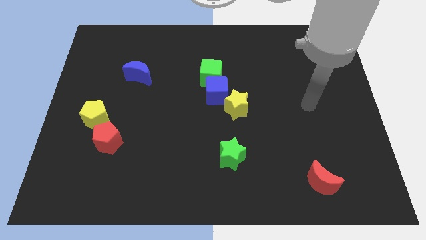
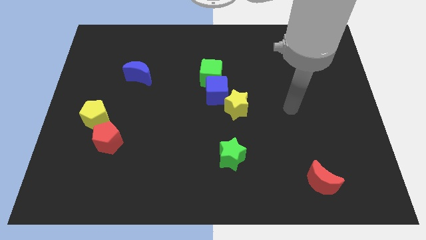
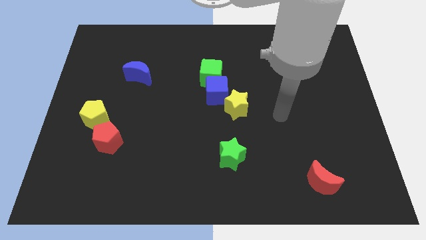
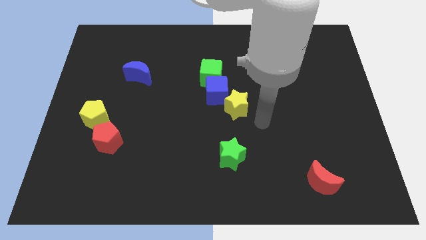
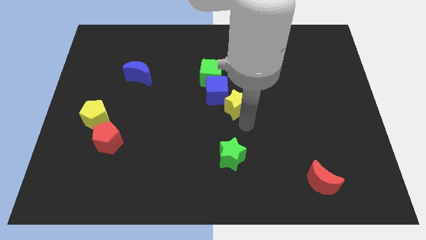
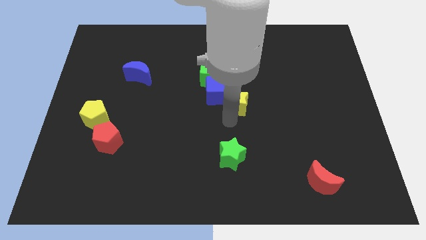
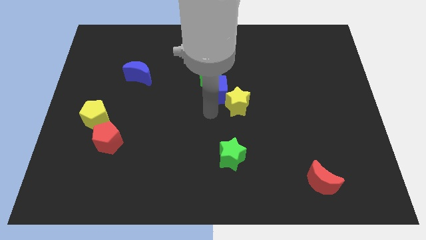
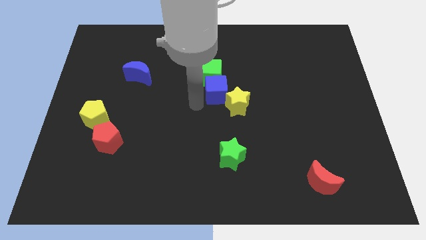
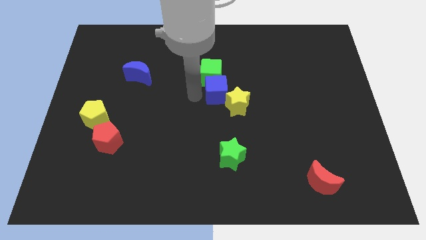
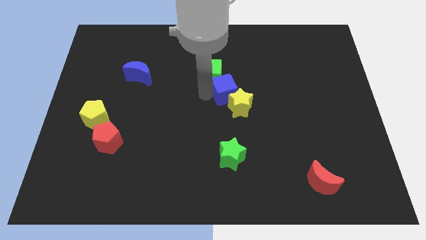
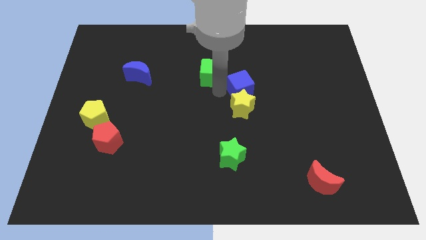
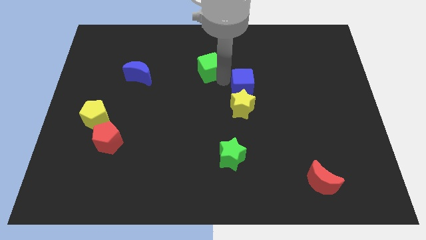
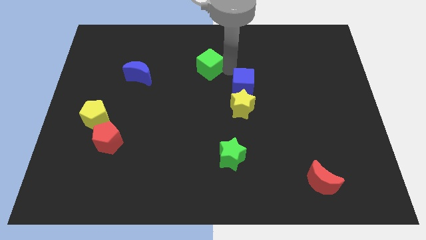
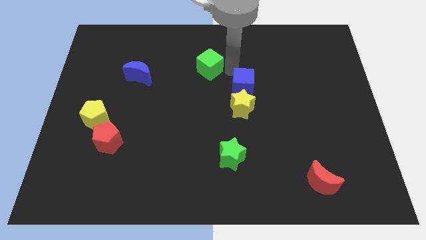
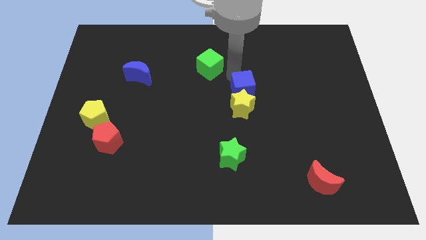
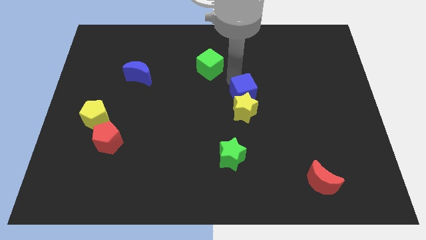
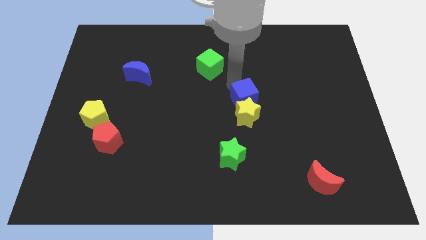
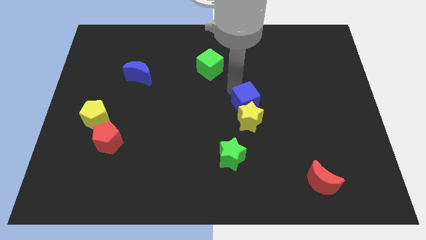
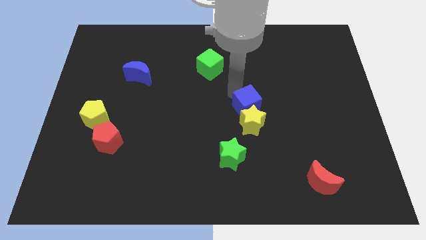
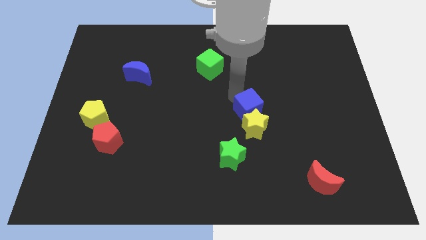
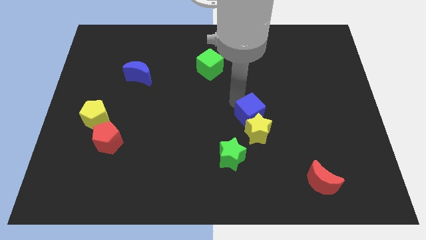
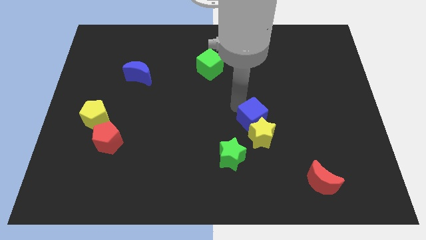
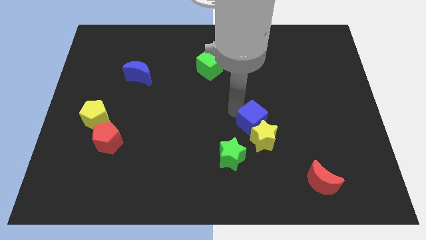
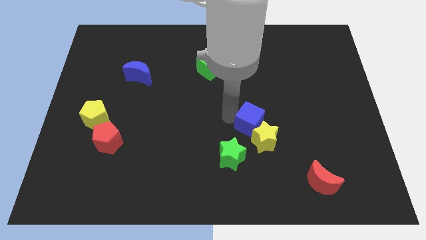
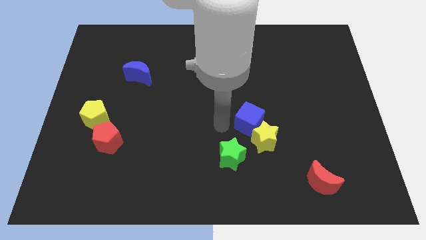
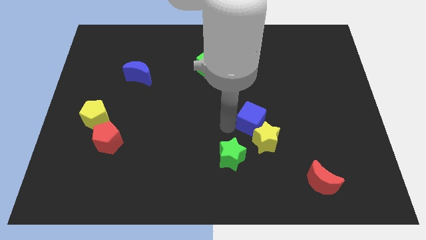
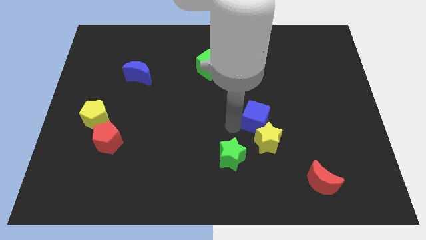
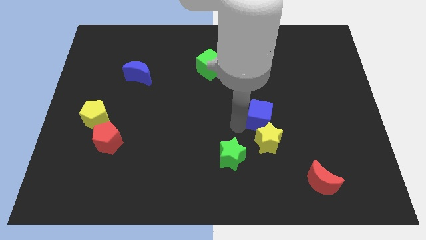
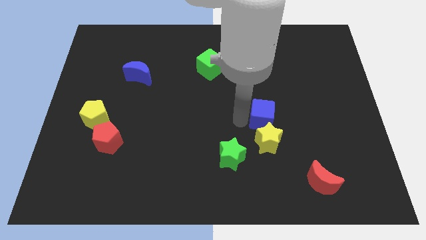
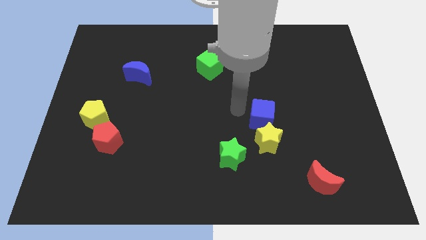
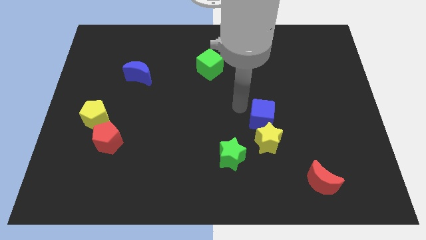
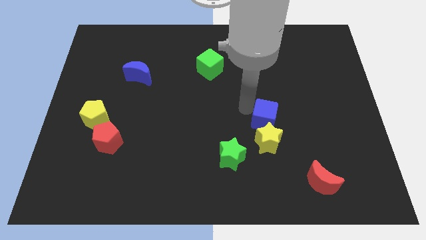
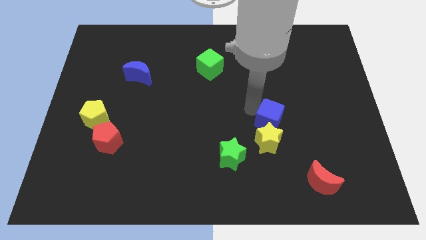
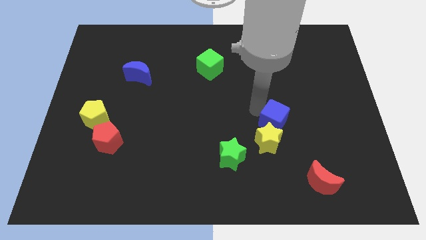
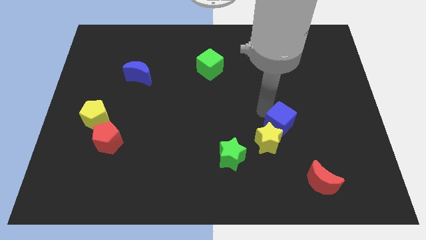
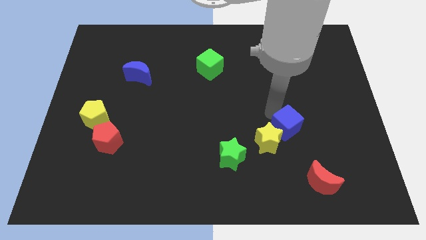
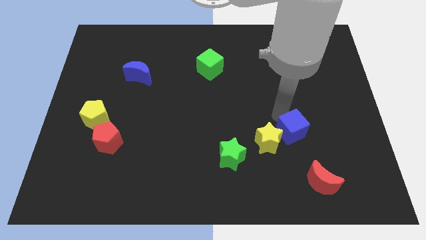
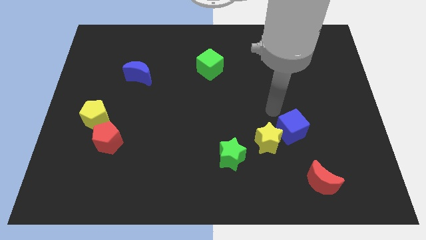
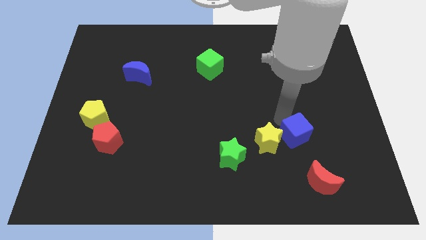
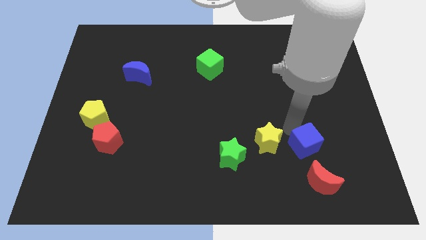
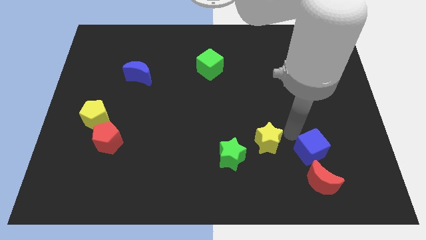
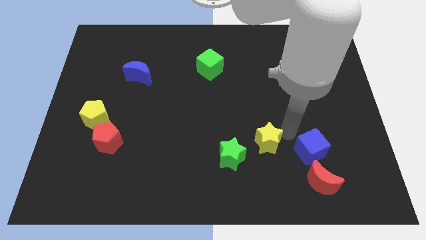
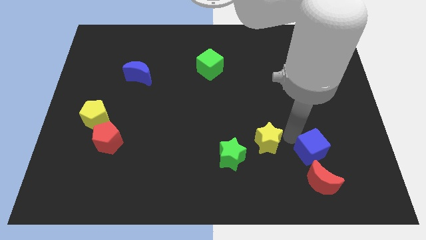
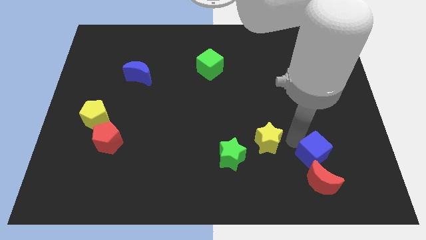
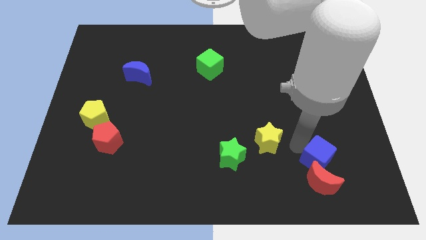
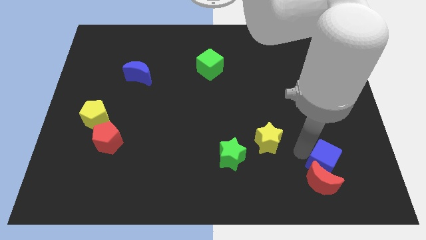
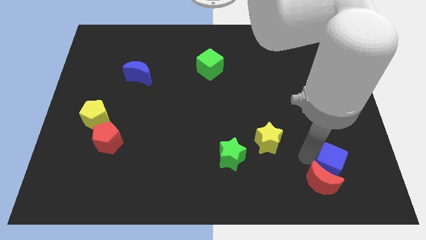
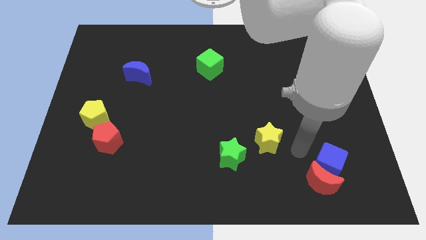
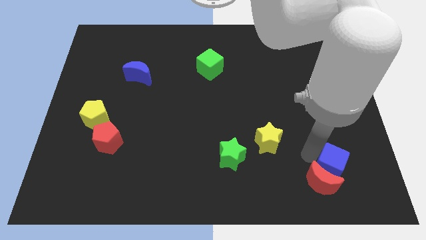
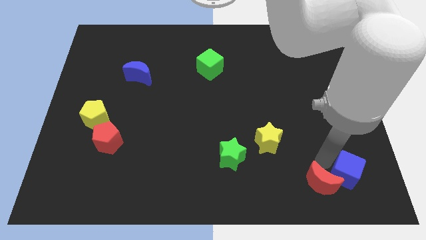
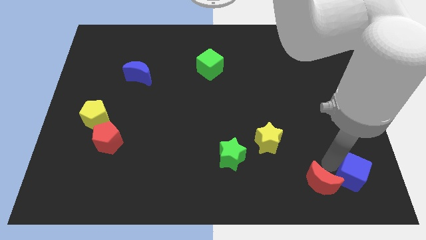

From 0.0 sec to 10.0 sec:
push the blue cube to the bottom right corner
